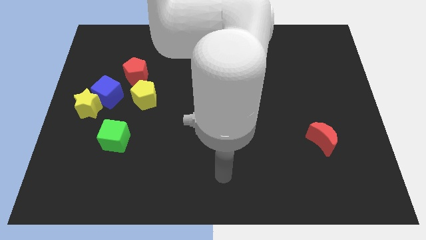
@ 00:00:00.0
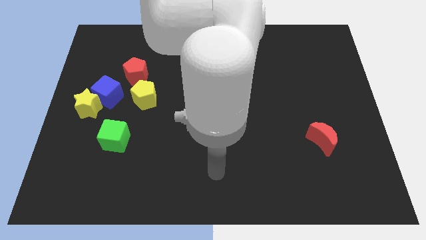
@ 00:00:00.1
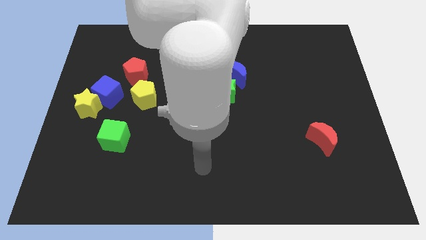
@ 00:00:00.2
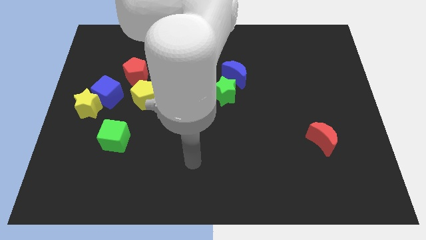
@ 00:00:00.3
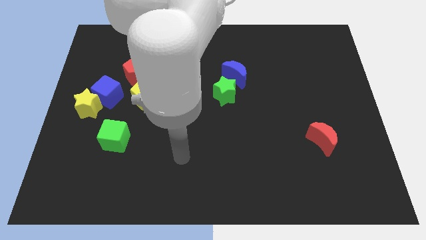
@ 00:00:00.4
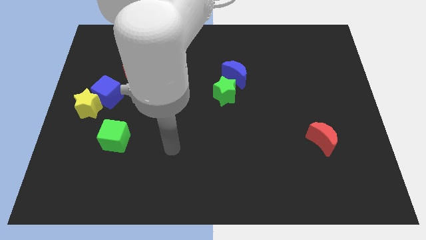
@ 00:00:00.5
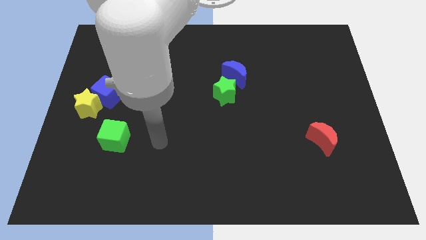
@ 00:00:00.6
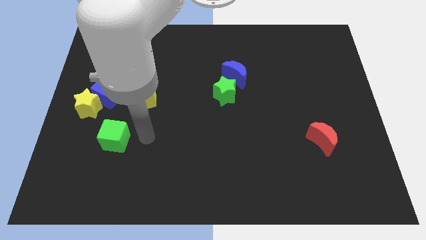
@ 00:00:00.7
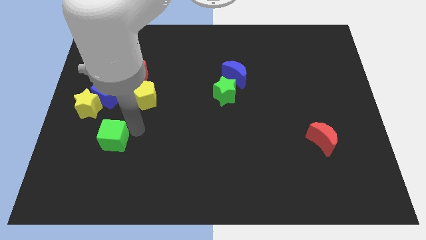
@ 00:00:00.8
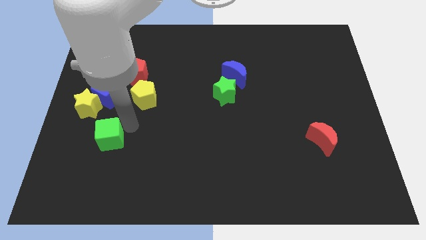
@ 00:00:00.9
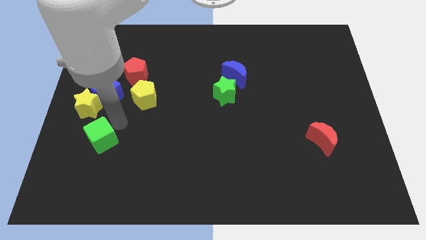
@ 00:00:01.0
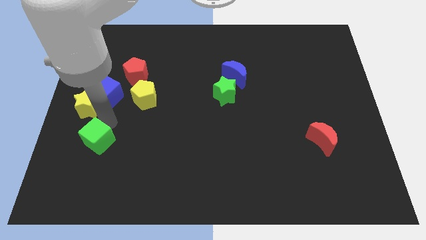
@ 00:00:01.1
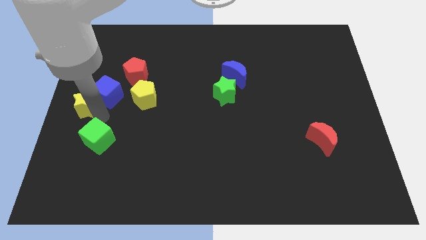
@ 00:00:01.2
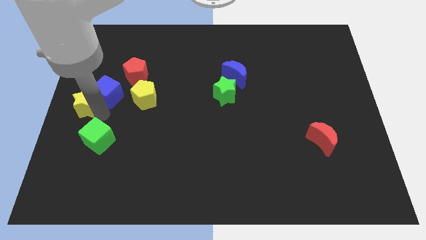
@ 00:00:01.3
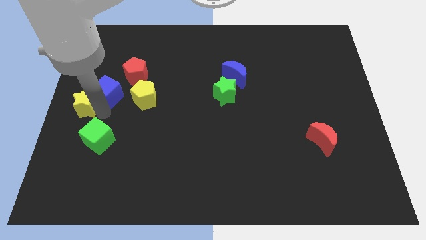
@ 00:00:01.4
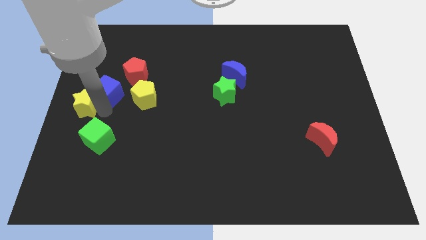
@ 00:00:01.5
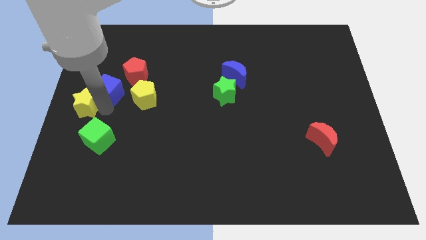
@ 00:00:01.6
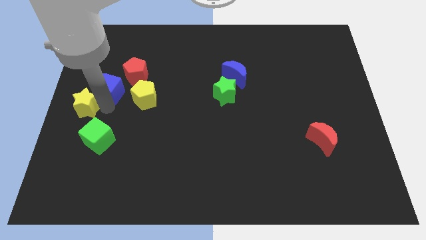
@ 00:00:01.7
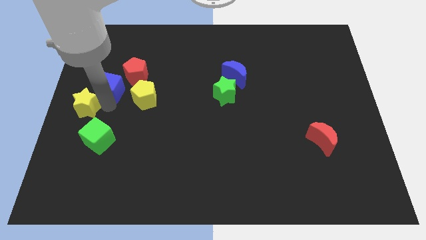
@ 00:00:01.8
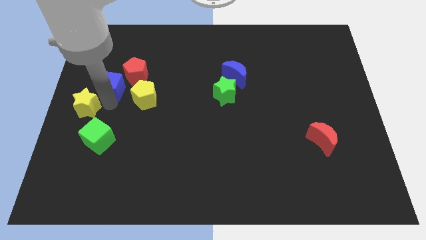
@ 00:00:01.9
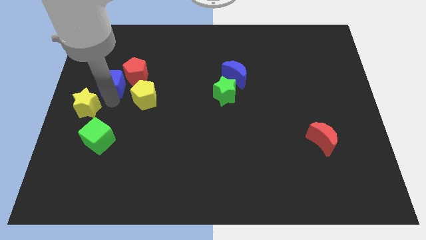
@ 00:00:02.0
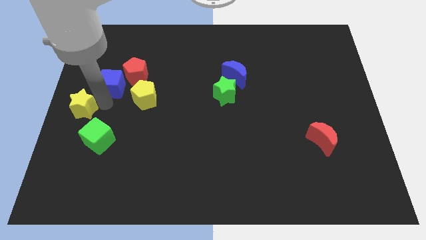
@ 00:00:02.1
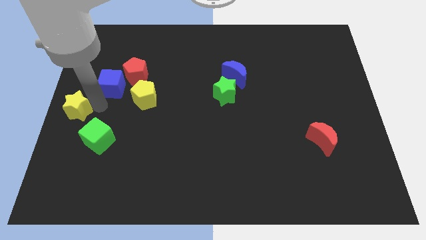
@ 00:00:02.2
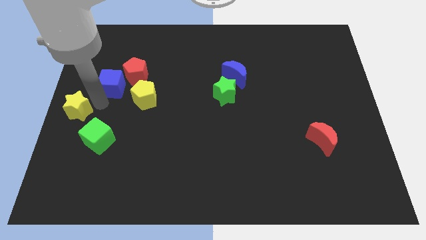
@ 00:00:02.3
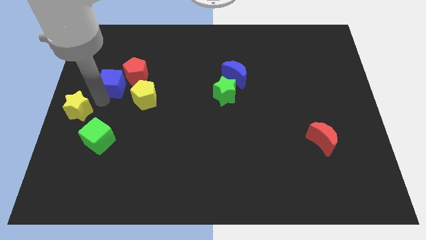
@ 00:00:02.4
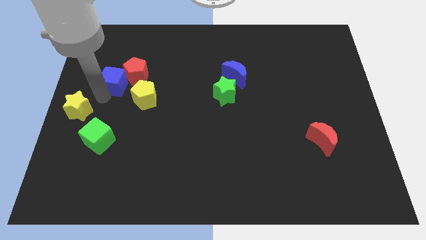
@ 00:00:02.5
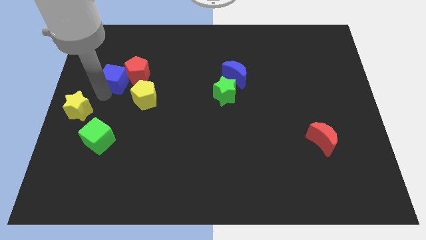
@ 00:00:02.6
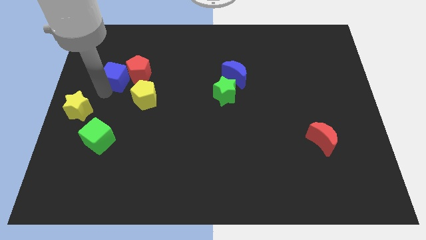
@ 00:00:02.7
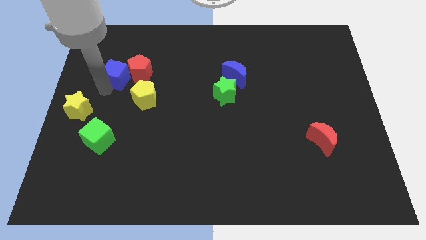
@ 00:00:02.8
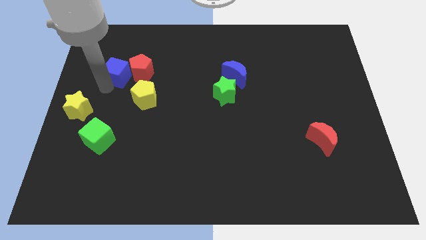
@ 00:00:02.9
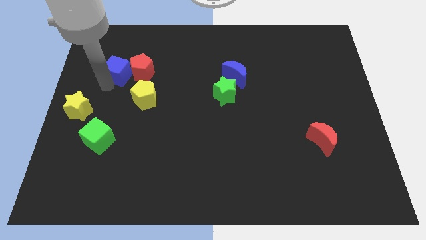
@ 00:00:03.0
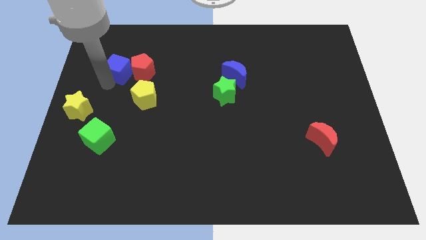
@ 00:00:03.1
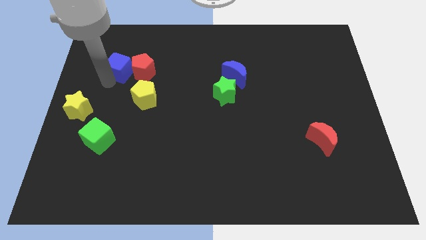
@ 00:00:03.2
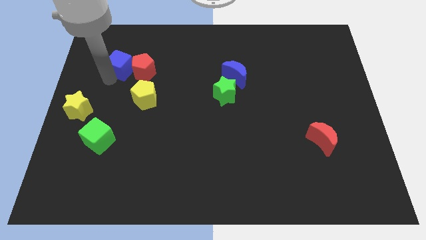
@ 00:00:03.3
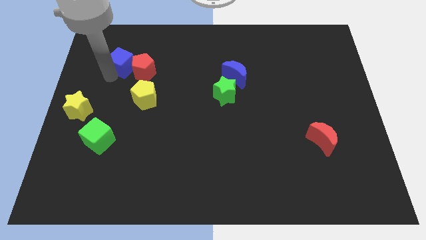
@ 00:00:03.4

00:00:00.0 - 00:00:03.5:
slide the blue cube upwards and to the right somewhat

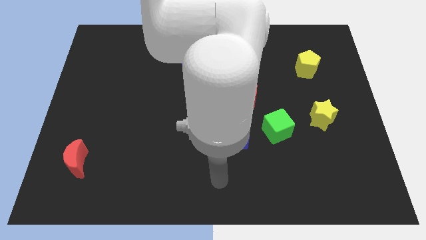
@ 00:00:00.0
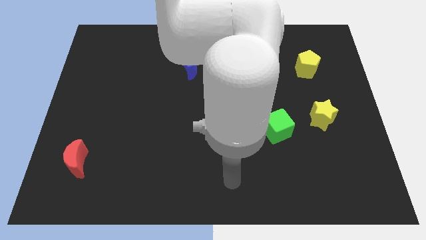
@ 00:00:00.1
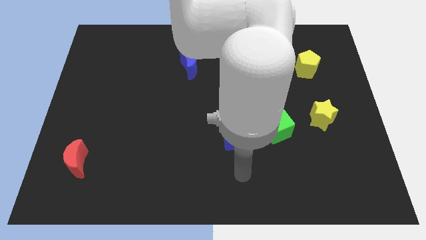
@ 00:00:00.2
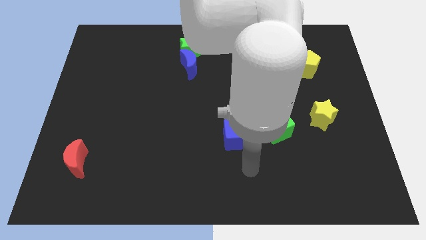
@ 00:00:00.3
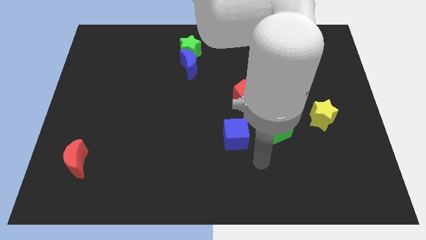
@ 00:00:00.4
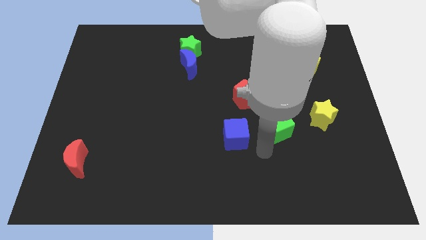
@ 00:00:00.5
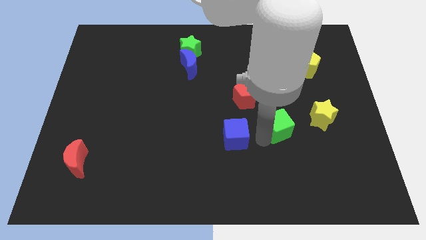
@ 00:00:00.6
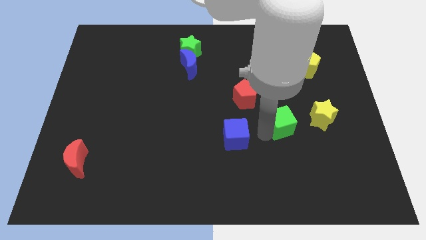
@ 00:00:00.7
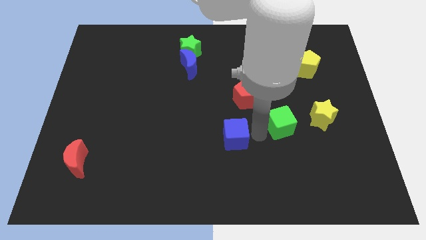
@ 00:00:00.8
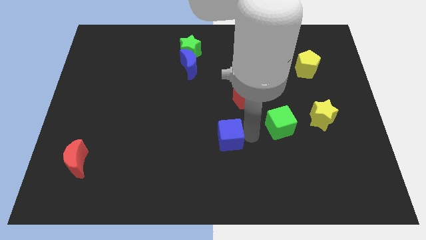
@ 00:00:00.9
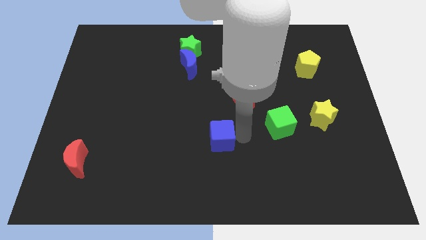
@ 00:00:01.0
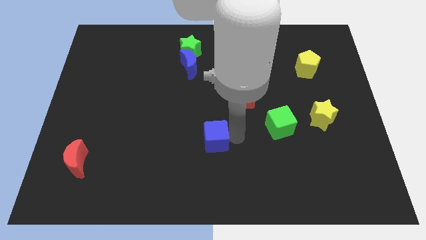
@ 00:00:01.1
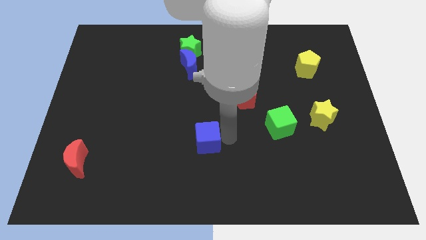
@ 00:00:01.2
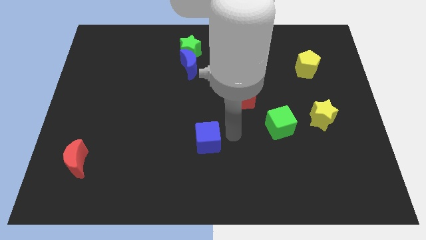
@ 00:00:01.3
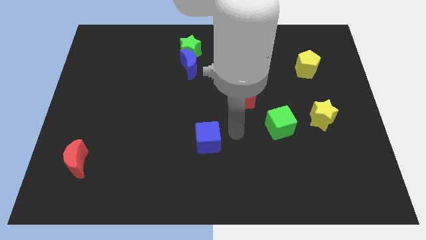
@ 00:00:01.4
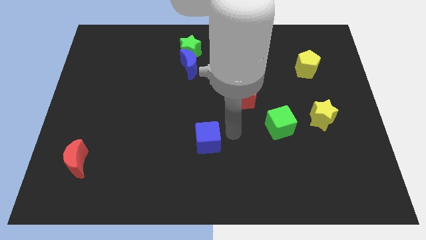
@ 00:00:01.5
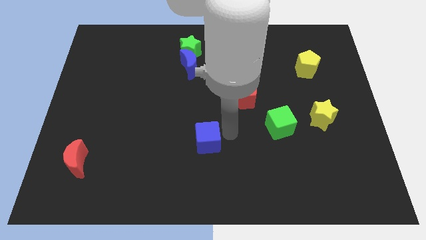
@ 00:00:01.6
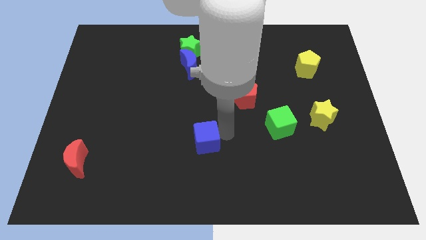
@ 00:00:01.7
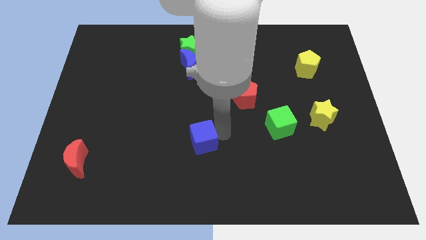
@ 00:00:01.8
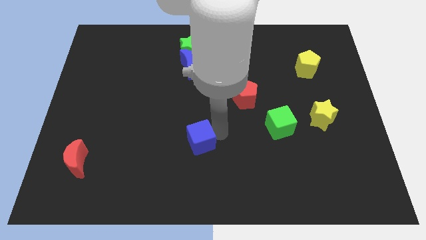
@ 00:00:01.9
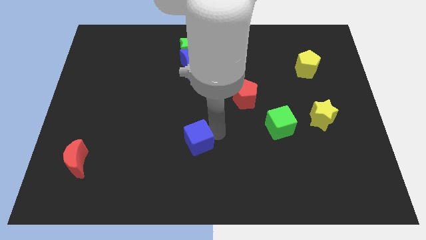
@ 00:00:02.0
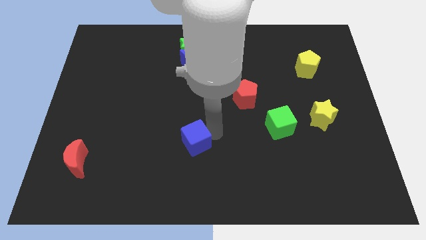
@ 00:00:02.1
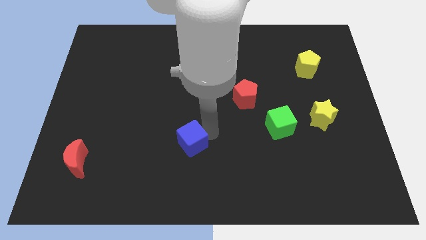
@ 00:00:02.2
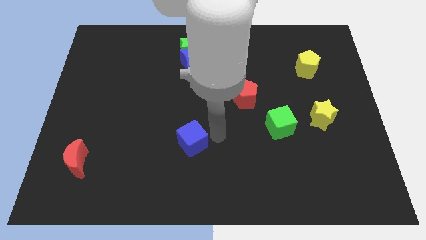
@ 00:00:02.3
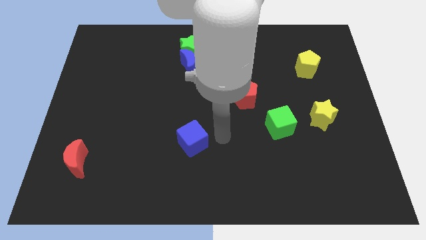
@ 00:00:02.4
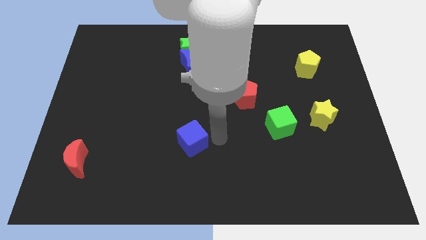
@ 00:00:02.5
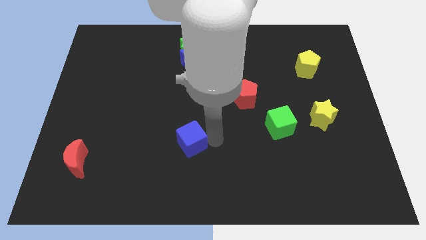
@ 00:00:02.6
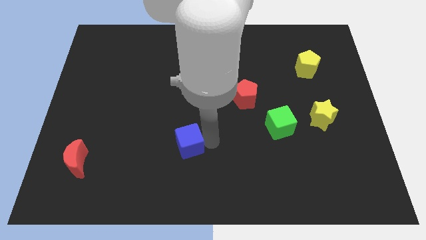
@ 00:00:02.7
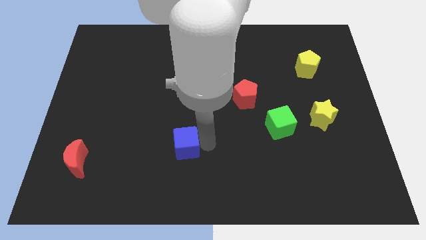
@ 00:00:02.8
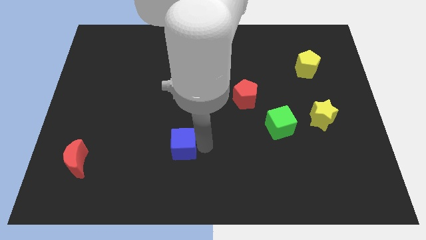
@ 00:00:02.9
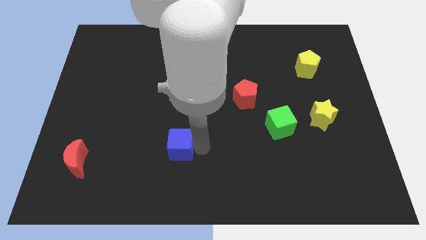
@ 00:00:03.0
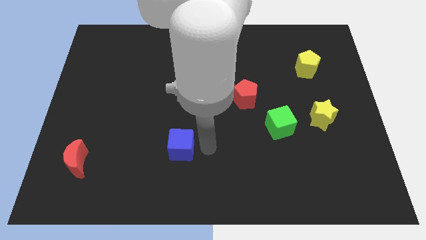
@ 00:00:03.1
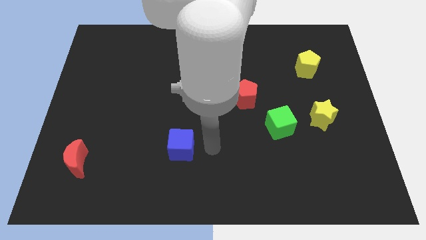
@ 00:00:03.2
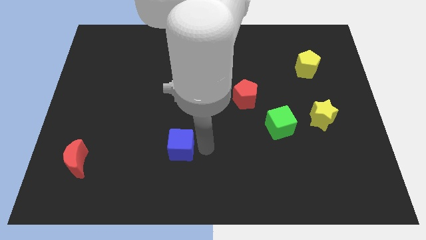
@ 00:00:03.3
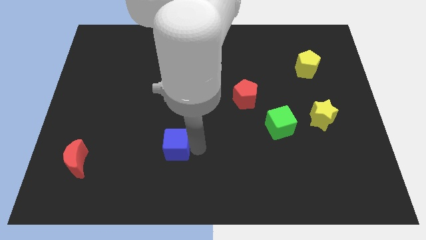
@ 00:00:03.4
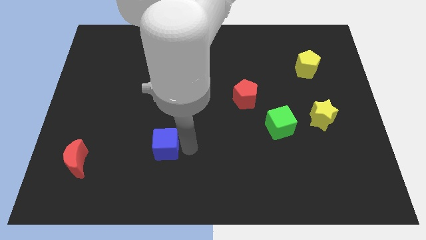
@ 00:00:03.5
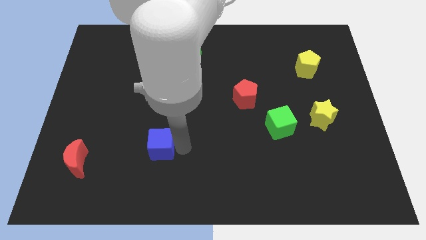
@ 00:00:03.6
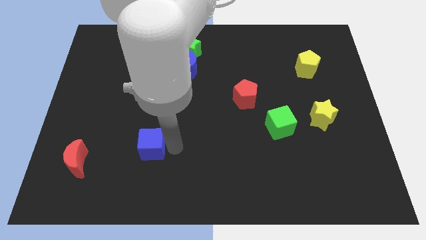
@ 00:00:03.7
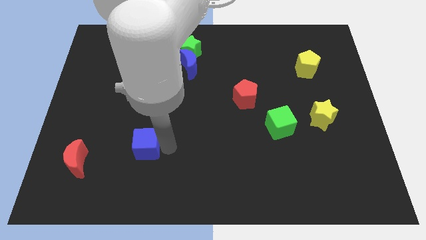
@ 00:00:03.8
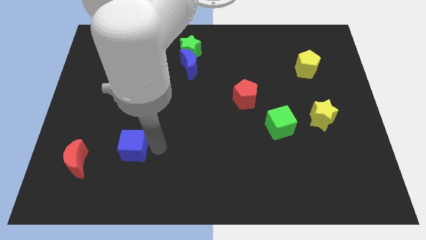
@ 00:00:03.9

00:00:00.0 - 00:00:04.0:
slide the blue cube to the left

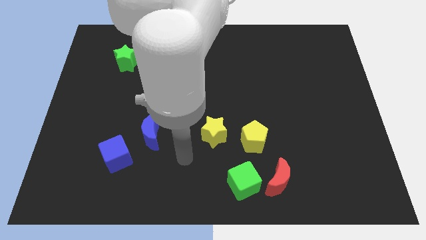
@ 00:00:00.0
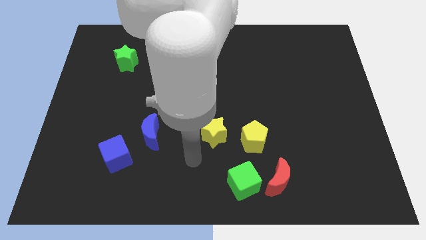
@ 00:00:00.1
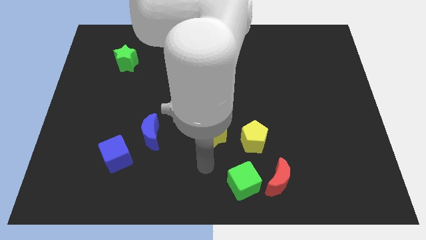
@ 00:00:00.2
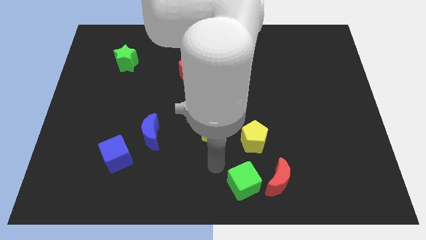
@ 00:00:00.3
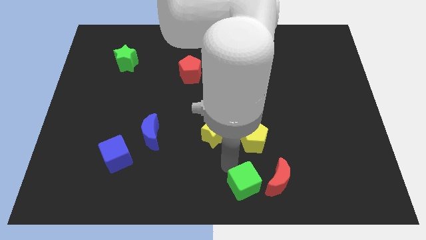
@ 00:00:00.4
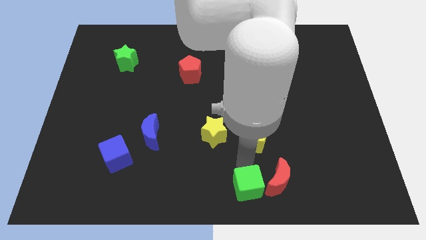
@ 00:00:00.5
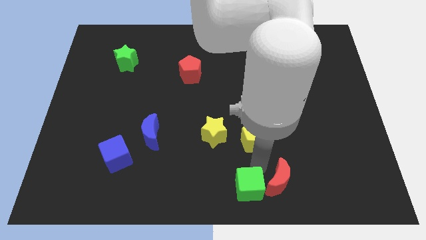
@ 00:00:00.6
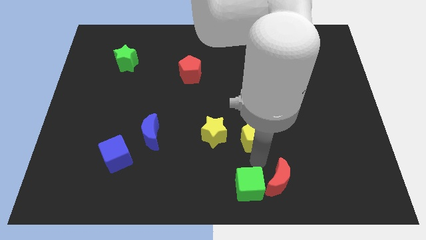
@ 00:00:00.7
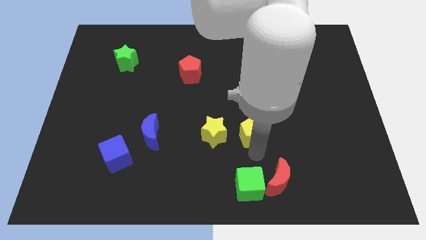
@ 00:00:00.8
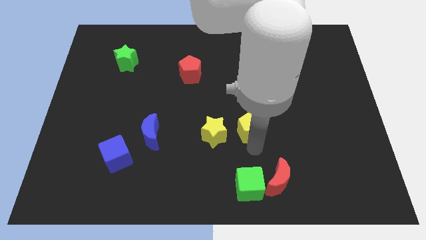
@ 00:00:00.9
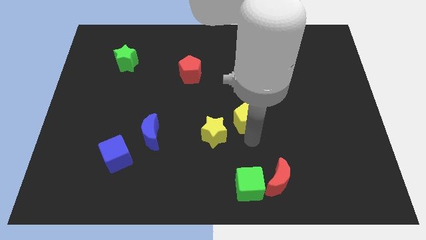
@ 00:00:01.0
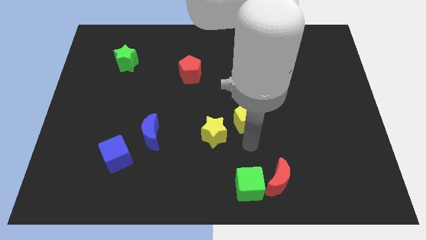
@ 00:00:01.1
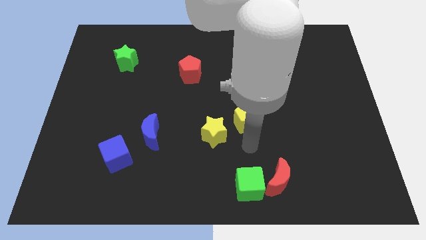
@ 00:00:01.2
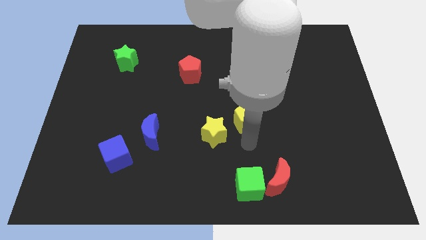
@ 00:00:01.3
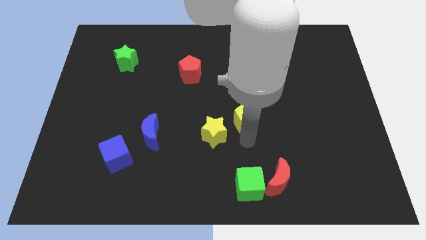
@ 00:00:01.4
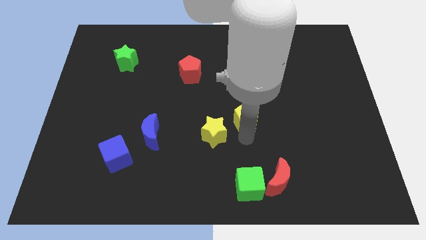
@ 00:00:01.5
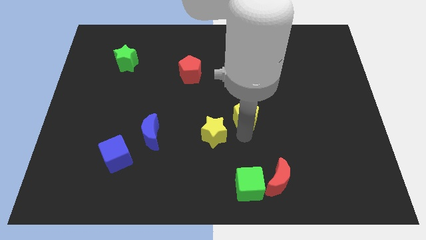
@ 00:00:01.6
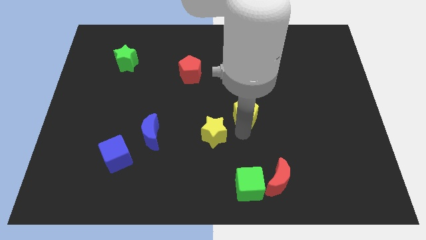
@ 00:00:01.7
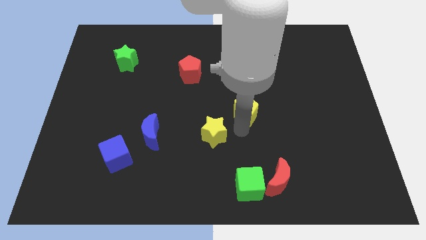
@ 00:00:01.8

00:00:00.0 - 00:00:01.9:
push the yellow pentagon upwards a bit
